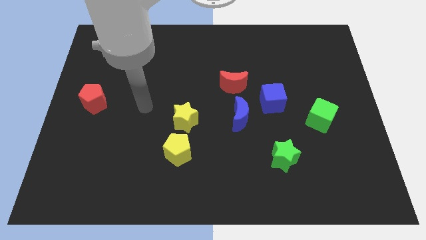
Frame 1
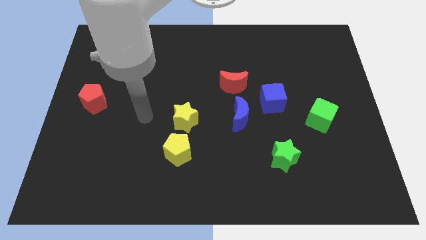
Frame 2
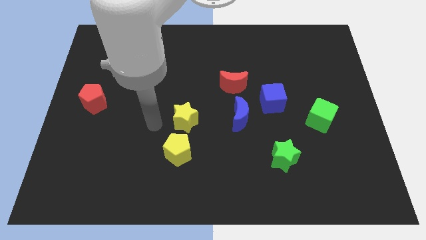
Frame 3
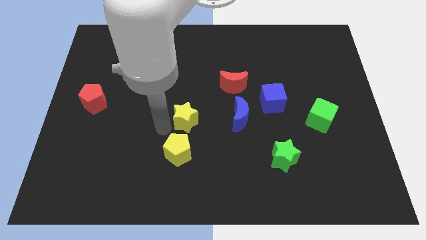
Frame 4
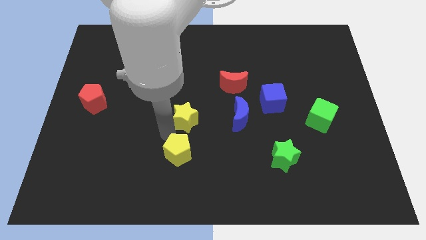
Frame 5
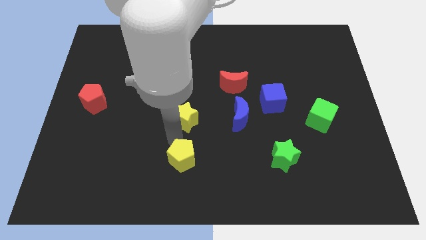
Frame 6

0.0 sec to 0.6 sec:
pull the yellow star apart from the yellow pentagon

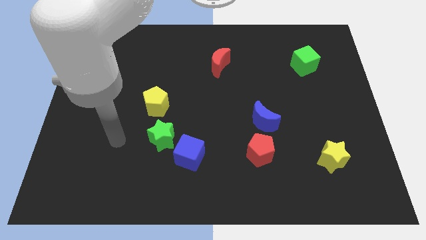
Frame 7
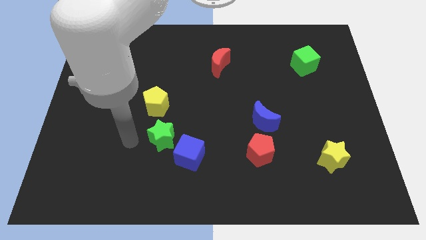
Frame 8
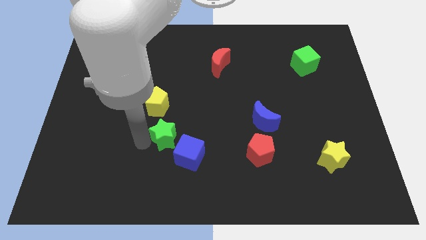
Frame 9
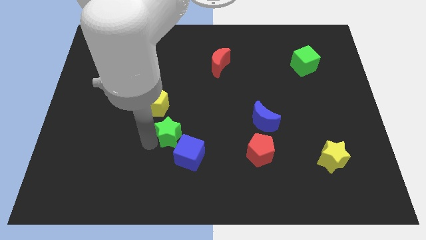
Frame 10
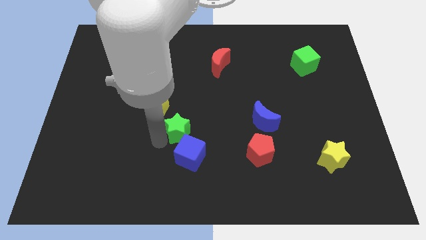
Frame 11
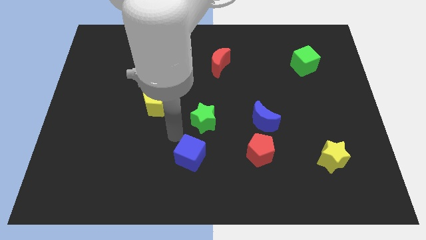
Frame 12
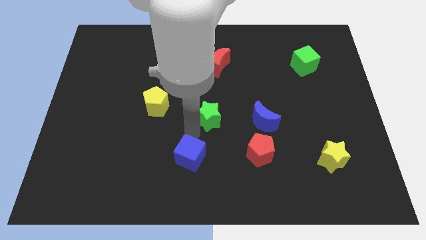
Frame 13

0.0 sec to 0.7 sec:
separate the blue cube from the green star

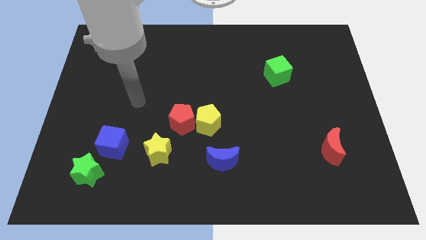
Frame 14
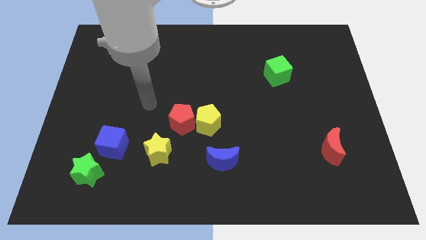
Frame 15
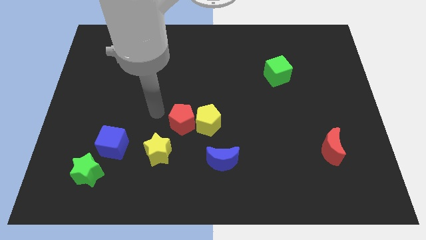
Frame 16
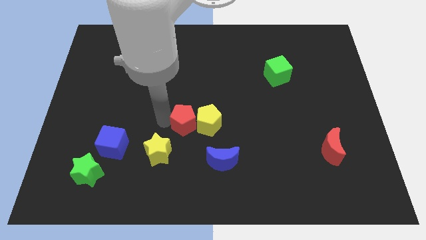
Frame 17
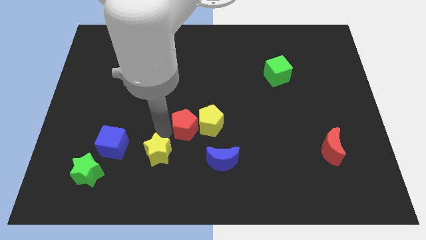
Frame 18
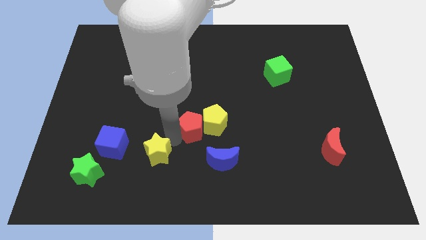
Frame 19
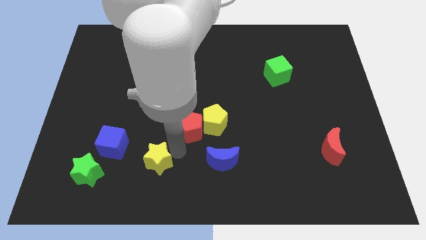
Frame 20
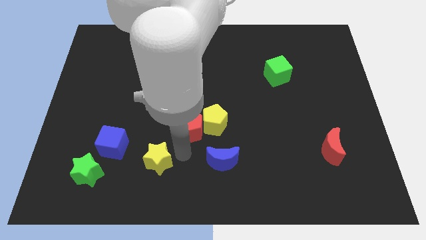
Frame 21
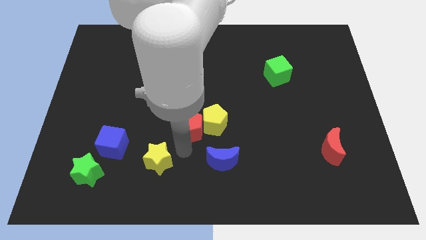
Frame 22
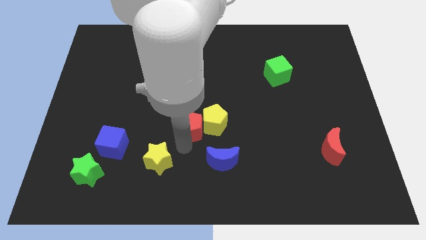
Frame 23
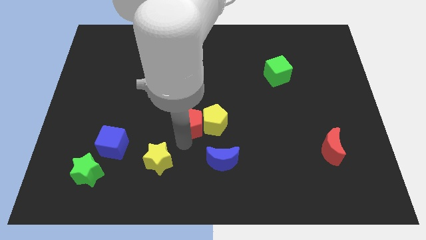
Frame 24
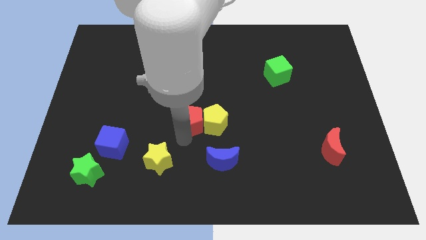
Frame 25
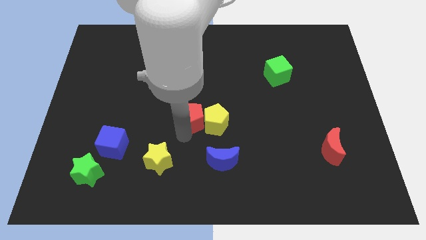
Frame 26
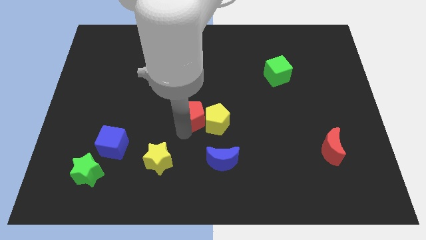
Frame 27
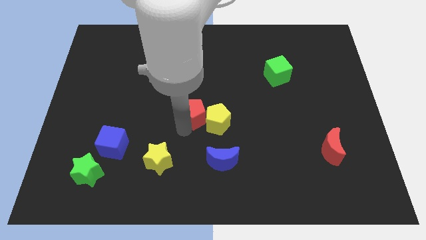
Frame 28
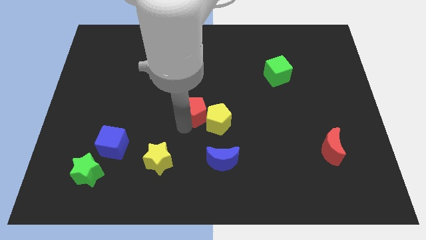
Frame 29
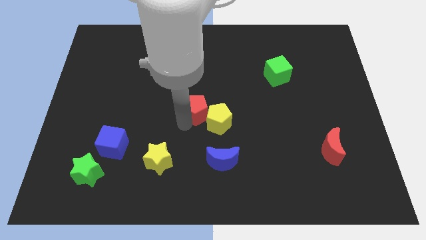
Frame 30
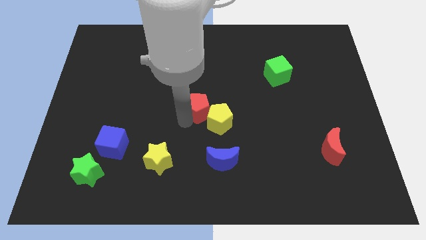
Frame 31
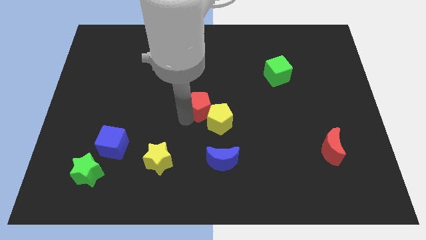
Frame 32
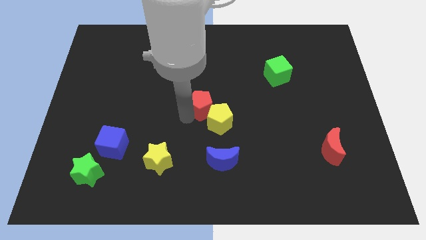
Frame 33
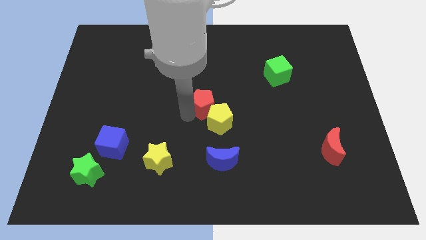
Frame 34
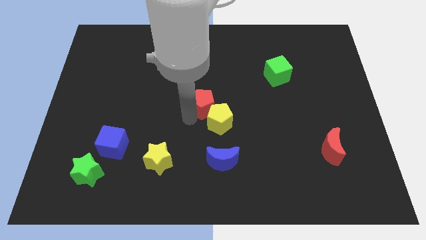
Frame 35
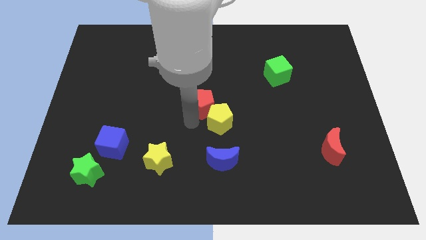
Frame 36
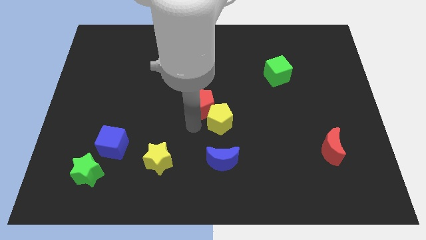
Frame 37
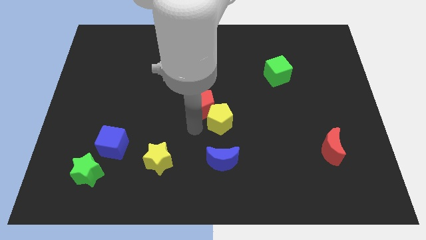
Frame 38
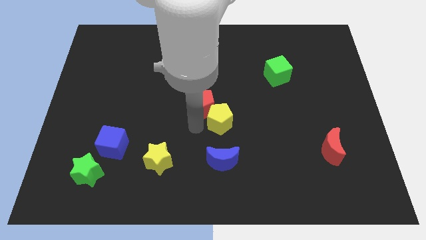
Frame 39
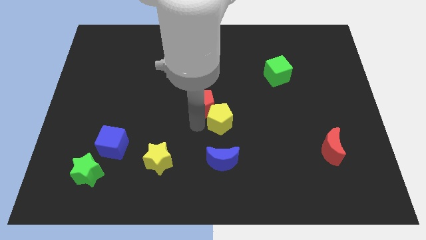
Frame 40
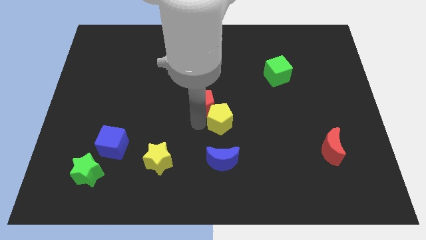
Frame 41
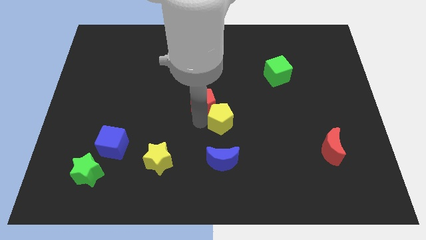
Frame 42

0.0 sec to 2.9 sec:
separate the red pentagon from the yellow pentagon and yellow star

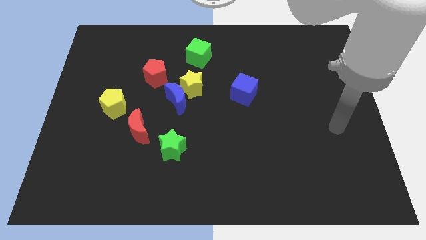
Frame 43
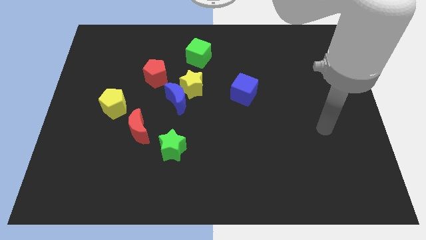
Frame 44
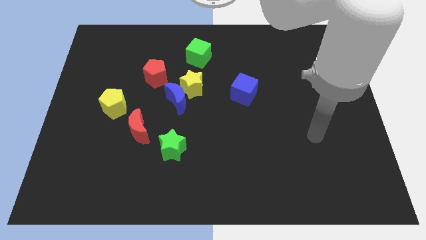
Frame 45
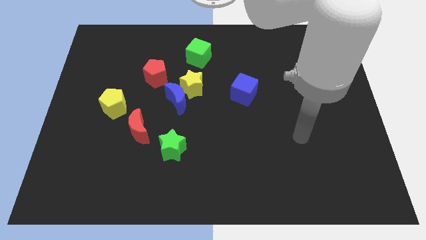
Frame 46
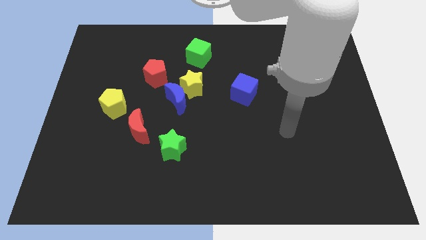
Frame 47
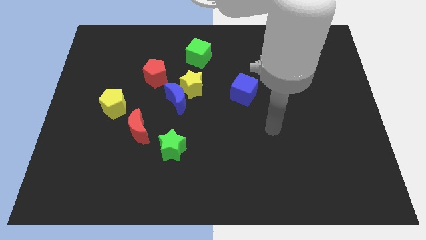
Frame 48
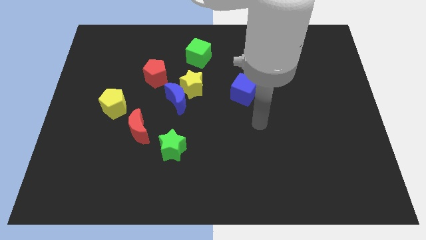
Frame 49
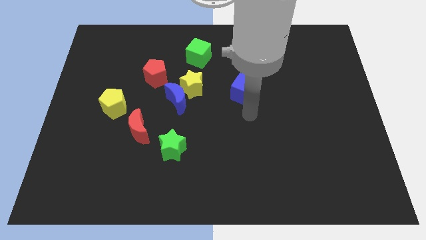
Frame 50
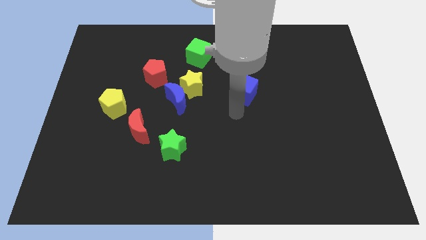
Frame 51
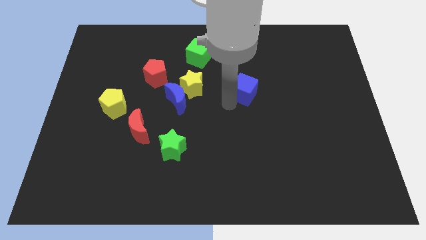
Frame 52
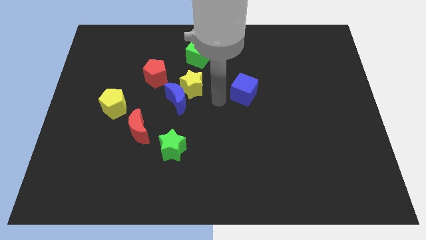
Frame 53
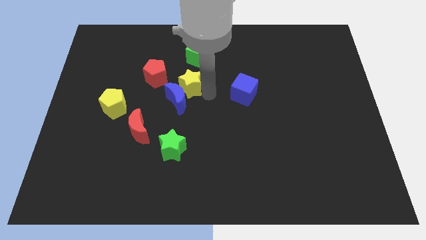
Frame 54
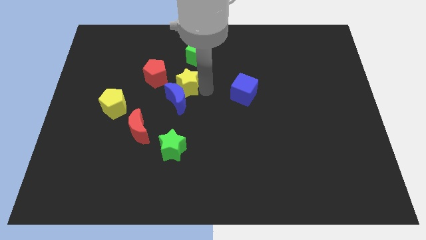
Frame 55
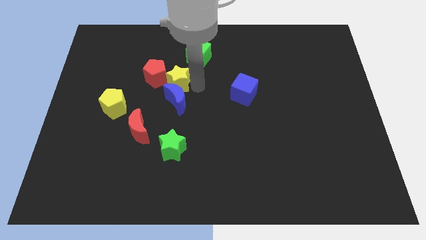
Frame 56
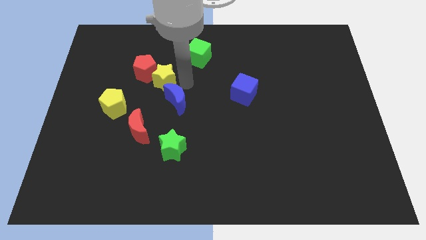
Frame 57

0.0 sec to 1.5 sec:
pull the blue moon apart from the yellow star and red pentagon

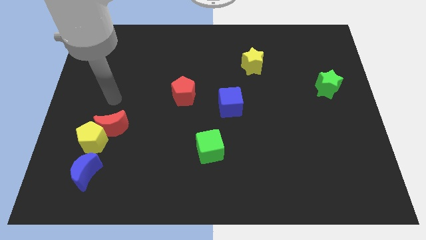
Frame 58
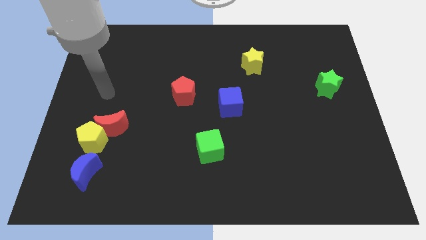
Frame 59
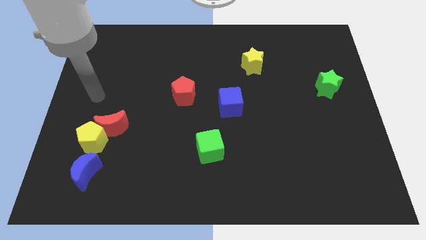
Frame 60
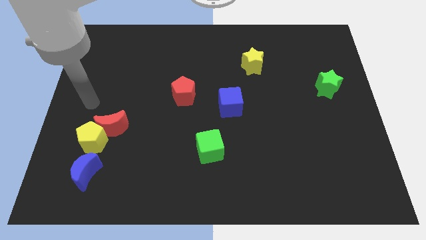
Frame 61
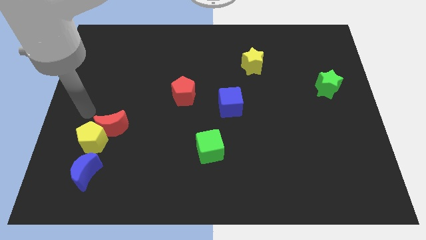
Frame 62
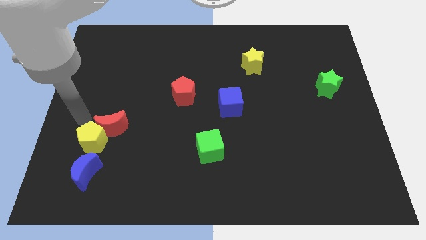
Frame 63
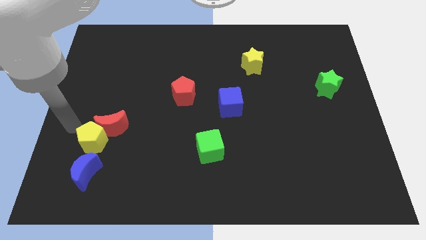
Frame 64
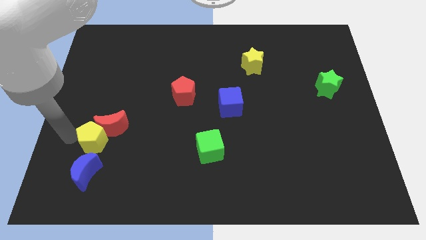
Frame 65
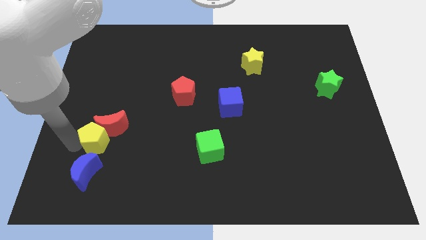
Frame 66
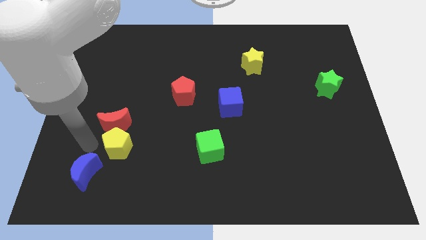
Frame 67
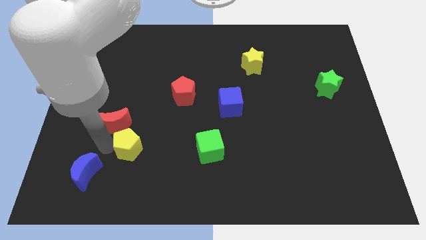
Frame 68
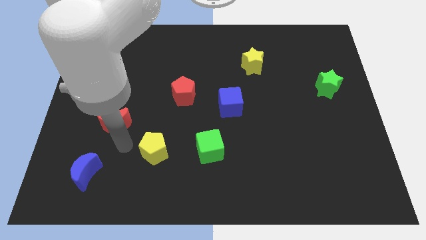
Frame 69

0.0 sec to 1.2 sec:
pull the red moon apart from the yellow pentagon

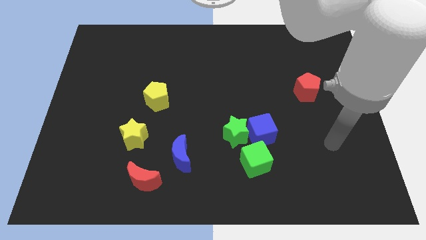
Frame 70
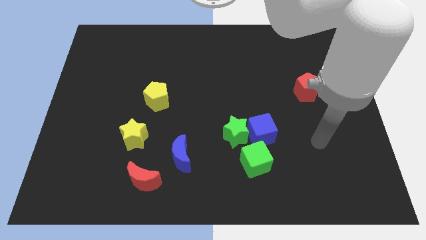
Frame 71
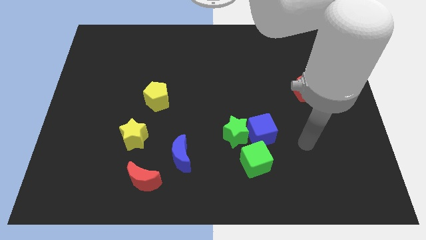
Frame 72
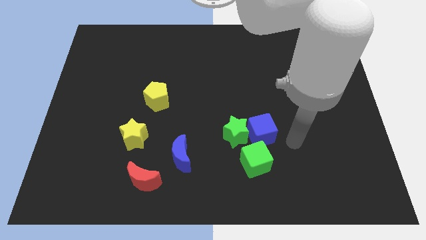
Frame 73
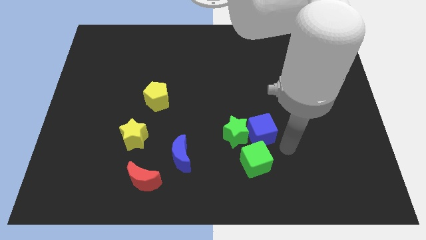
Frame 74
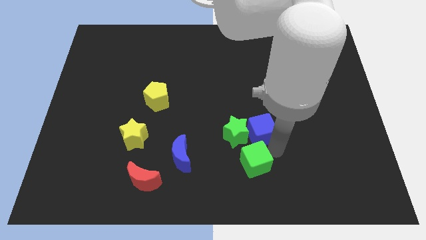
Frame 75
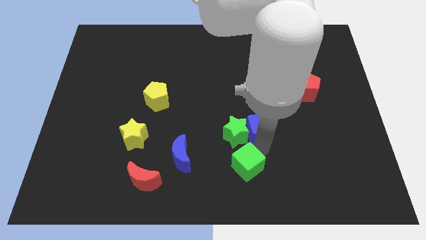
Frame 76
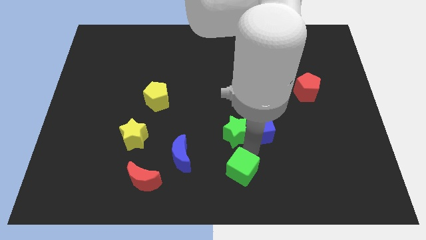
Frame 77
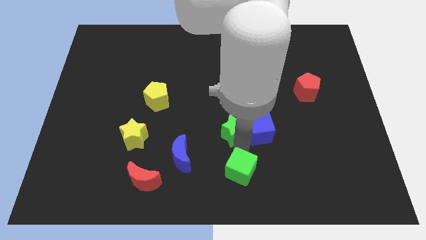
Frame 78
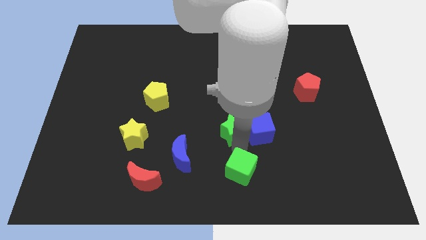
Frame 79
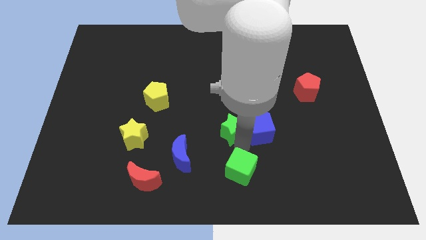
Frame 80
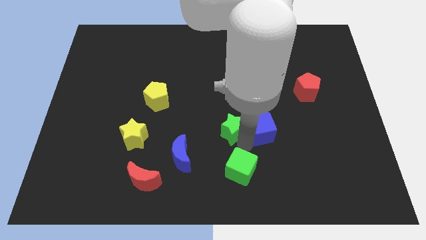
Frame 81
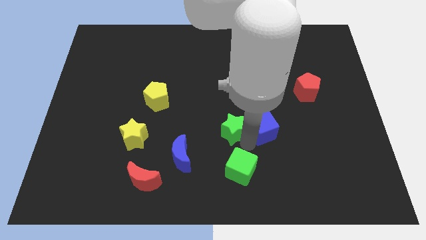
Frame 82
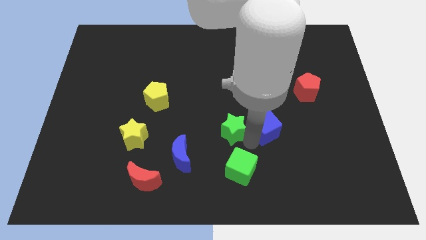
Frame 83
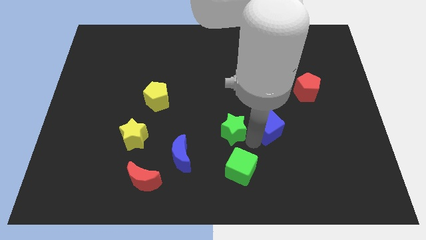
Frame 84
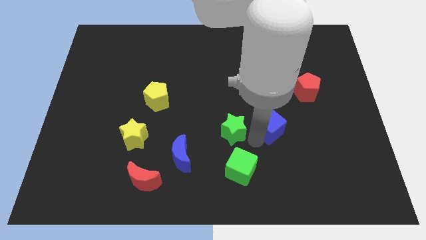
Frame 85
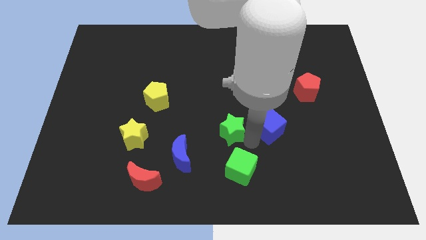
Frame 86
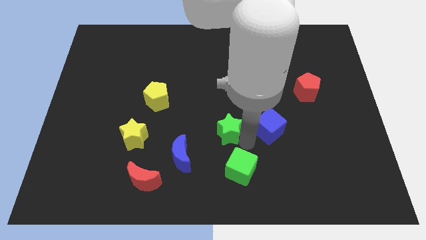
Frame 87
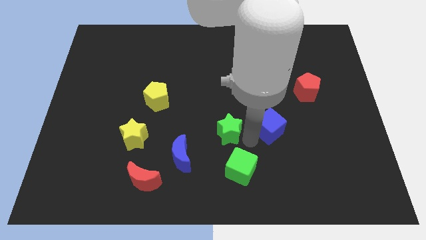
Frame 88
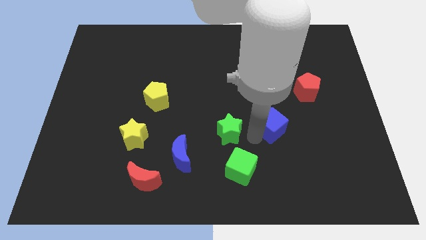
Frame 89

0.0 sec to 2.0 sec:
pull the blue cube apart from the green star and green cube

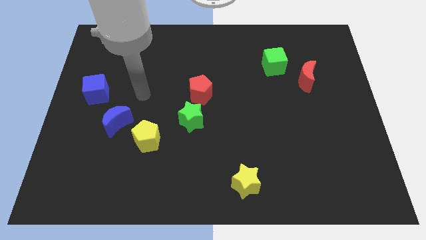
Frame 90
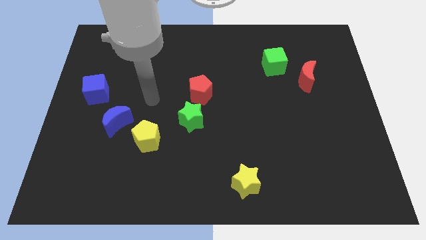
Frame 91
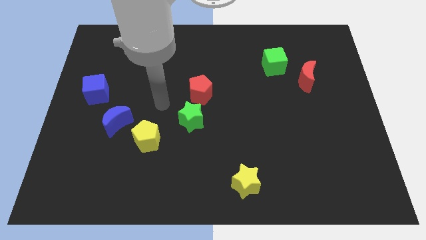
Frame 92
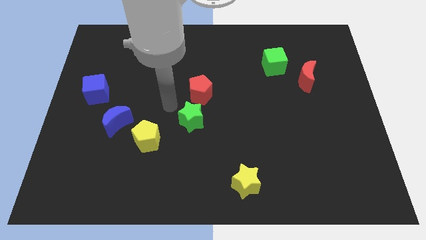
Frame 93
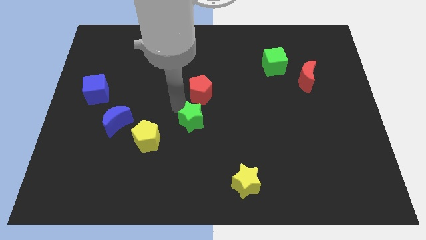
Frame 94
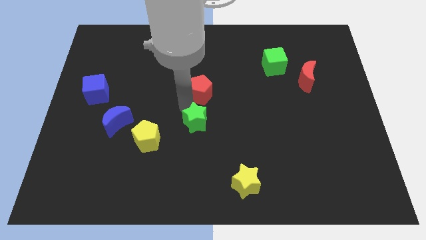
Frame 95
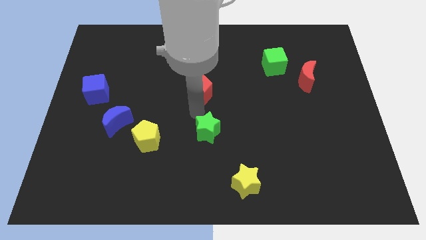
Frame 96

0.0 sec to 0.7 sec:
separate the red pentagon from the green star
